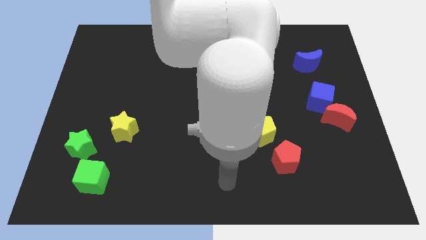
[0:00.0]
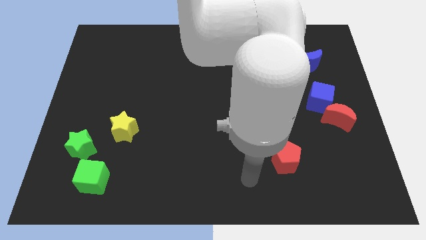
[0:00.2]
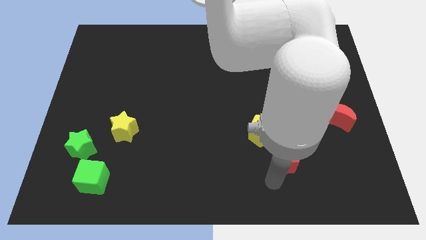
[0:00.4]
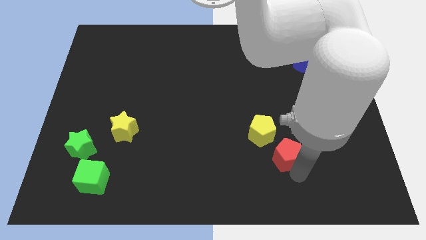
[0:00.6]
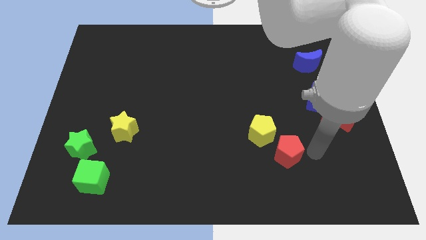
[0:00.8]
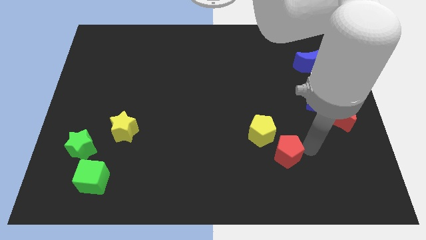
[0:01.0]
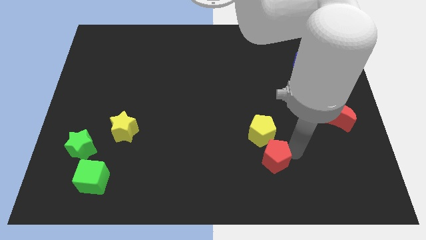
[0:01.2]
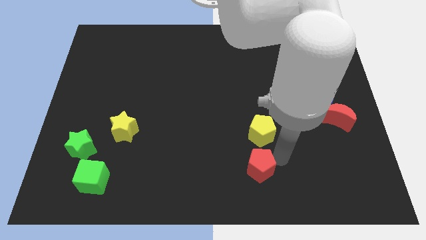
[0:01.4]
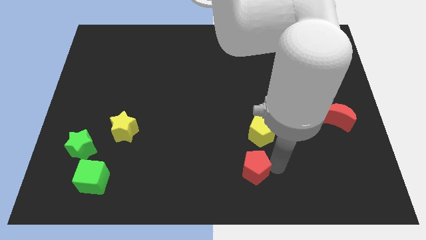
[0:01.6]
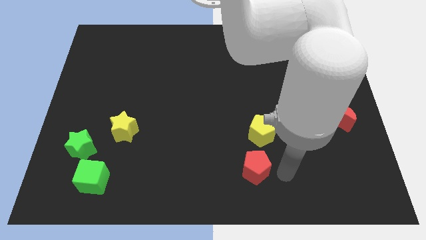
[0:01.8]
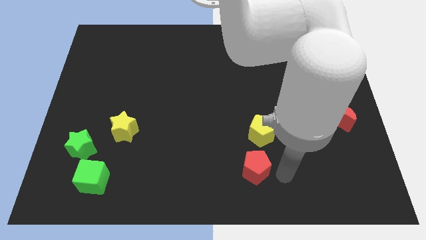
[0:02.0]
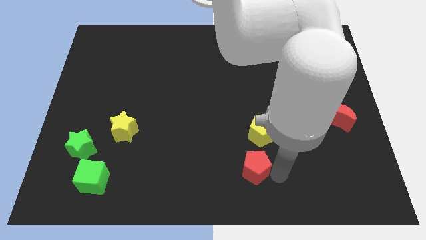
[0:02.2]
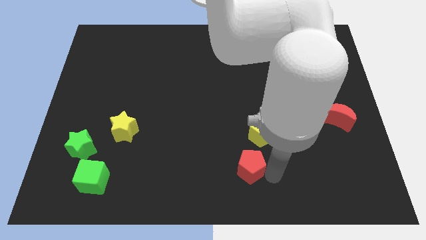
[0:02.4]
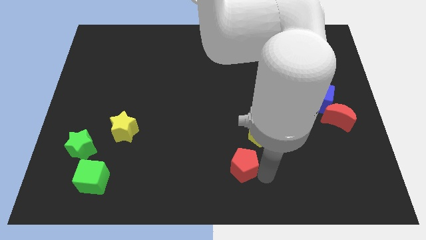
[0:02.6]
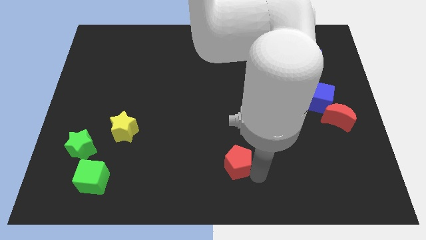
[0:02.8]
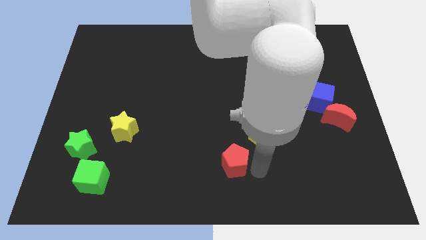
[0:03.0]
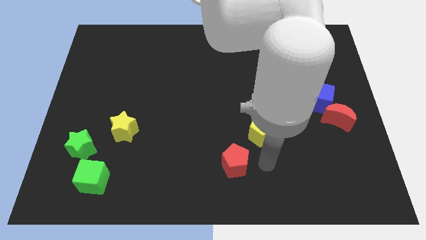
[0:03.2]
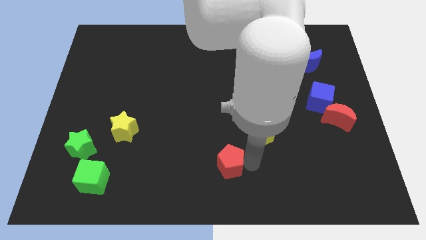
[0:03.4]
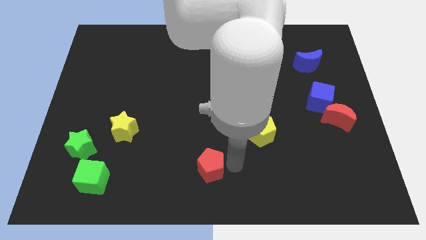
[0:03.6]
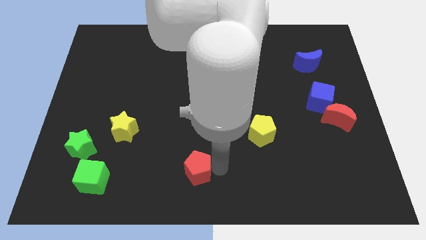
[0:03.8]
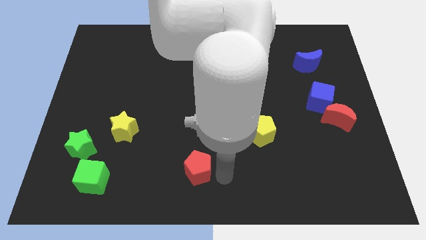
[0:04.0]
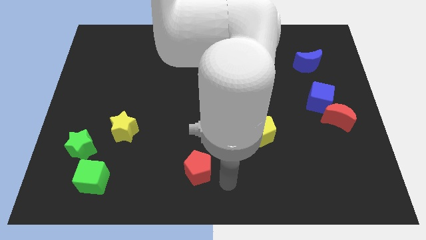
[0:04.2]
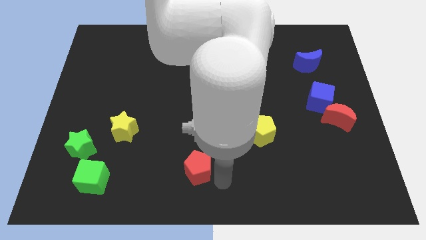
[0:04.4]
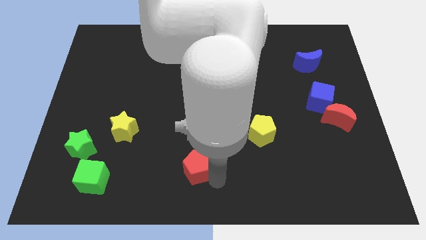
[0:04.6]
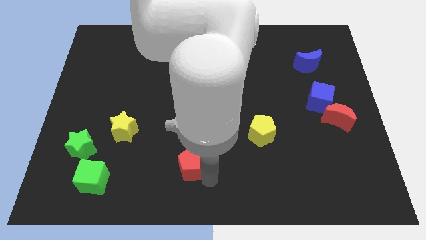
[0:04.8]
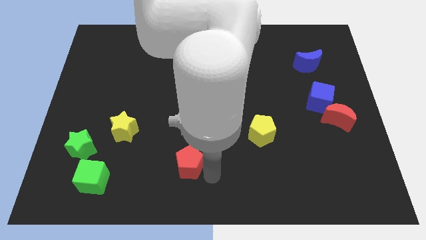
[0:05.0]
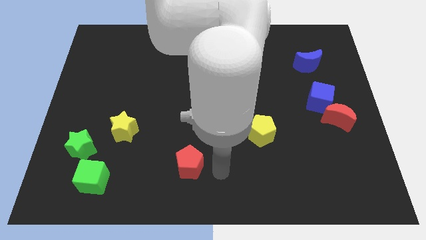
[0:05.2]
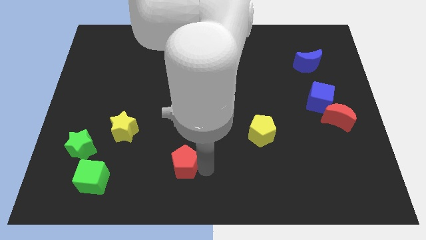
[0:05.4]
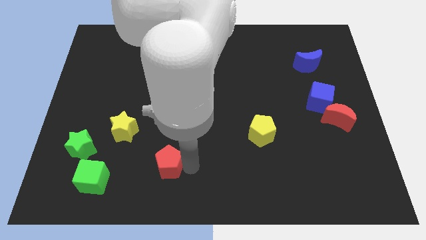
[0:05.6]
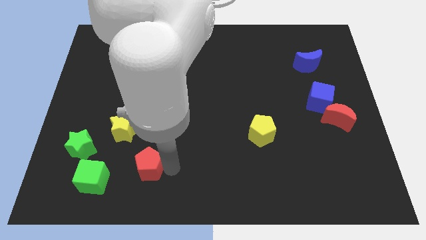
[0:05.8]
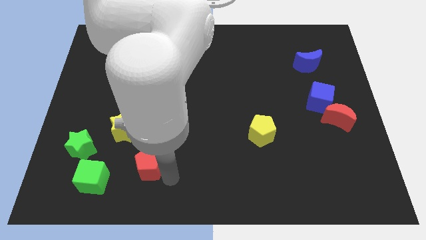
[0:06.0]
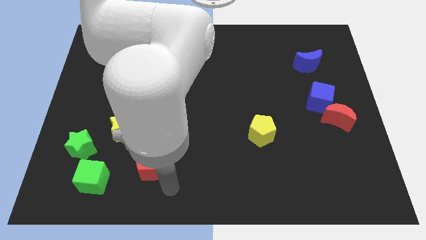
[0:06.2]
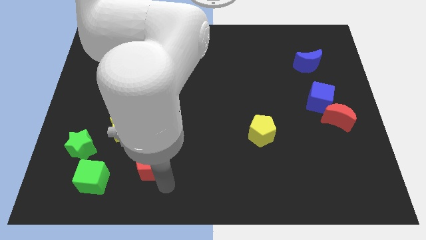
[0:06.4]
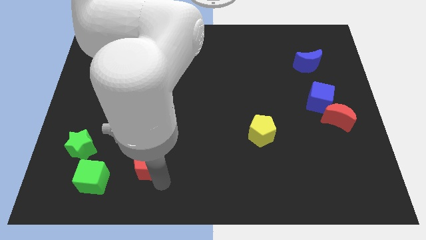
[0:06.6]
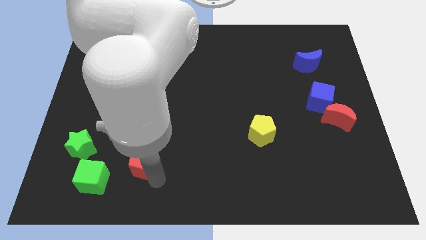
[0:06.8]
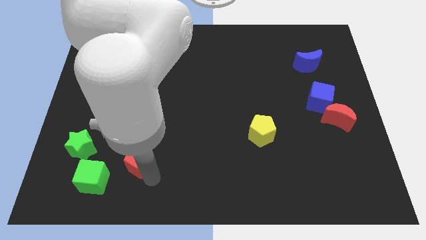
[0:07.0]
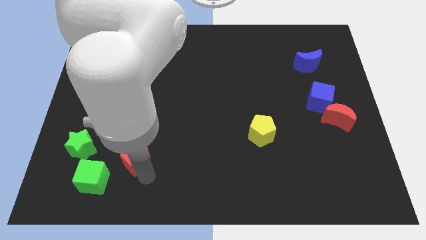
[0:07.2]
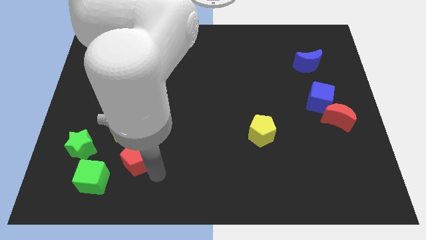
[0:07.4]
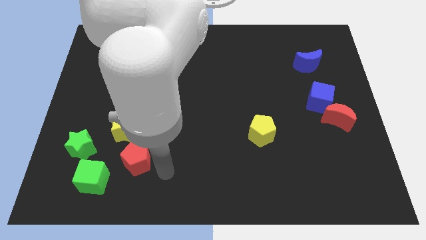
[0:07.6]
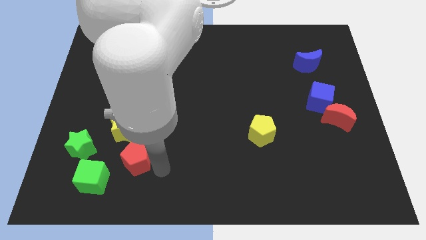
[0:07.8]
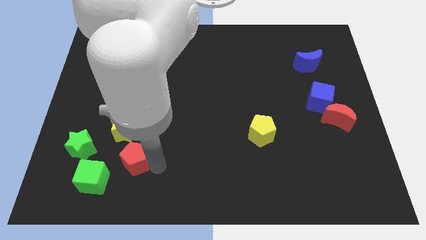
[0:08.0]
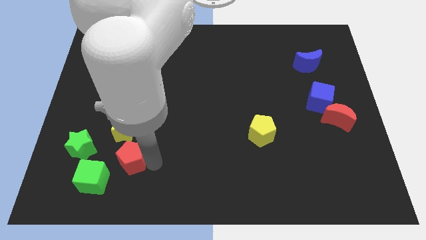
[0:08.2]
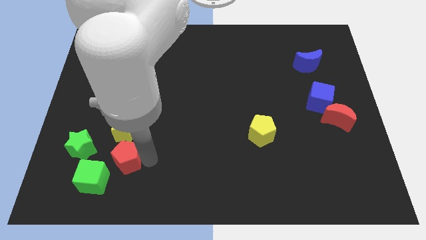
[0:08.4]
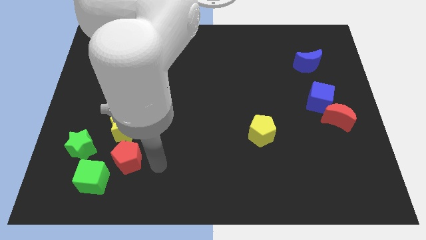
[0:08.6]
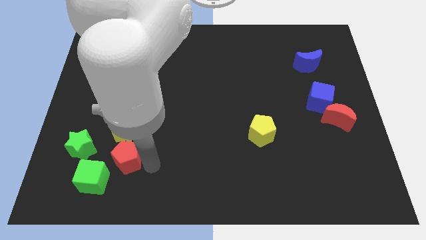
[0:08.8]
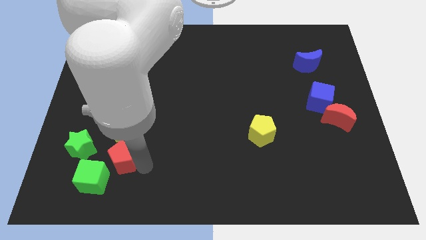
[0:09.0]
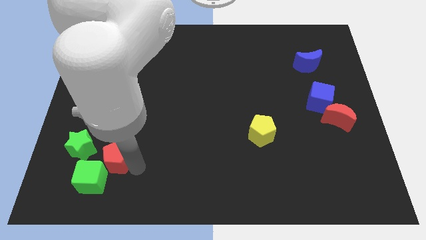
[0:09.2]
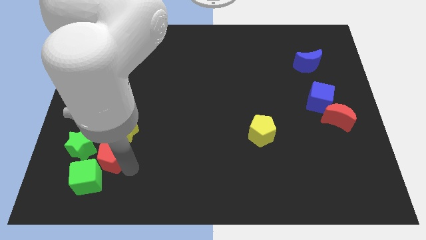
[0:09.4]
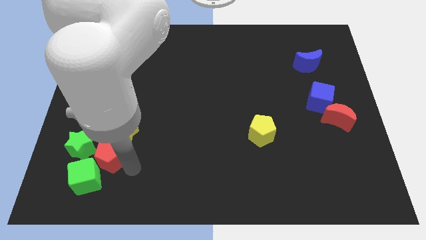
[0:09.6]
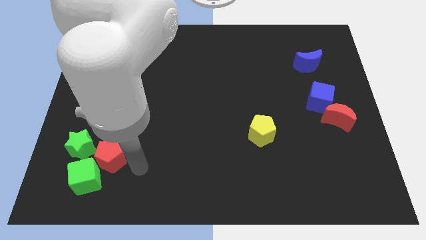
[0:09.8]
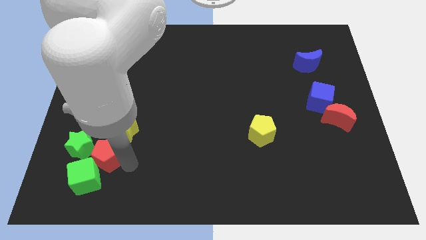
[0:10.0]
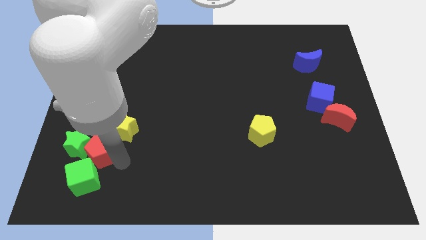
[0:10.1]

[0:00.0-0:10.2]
push the red pentagon next to the green star

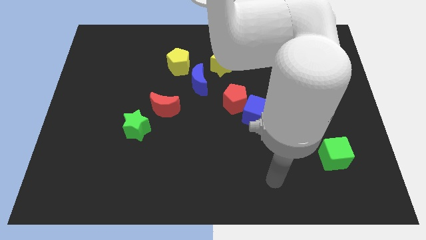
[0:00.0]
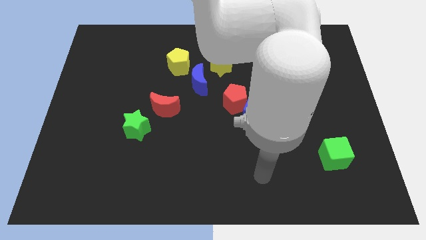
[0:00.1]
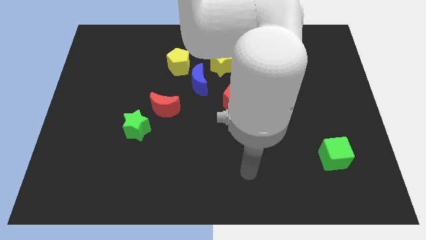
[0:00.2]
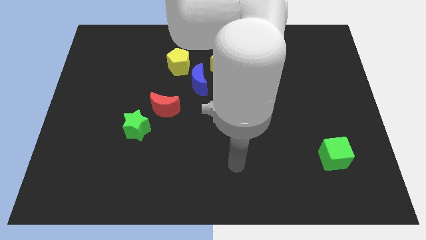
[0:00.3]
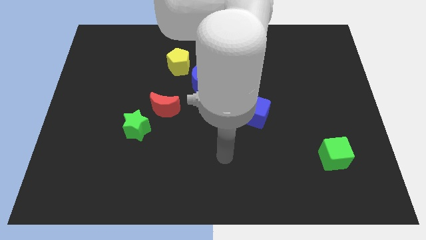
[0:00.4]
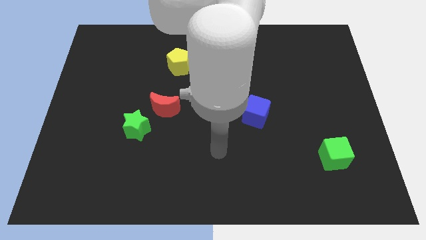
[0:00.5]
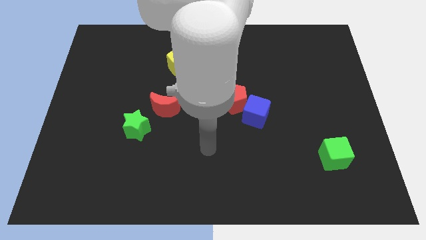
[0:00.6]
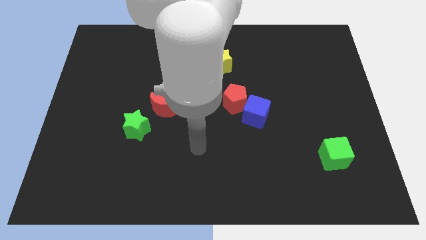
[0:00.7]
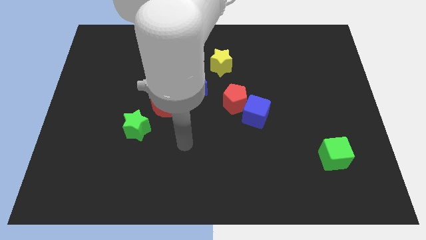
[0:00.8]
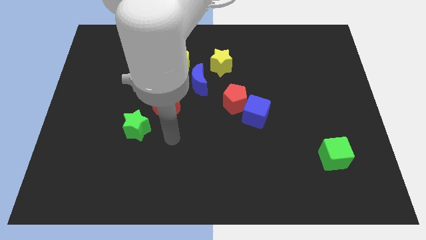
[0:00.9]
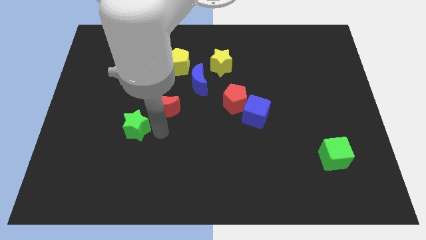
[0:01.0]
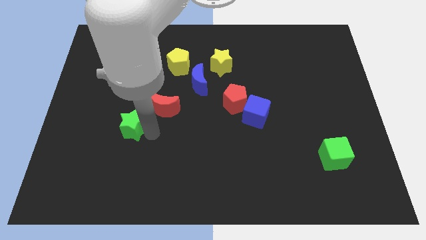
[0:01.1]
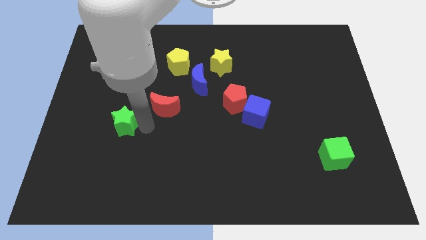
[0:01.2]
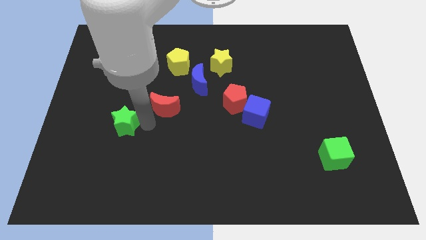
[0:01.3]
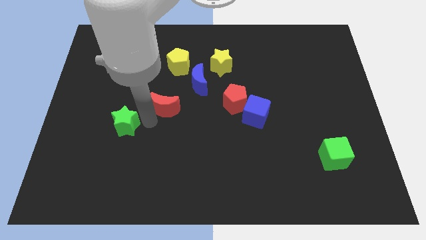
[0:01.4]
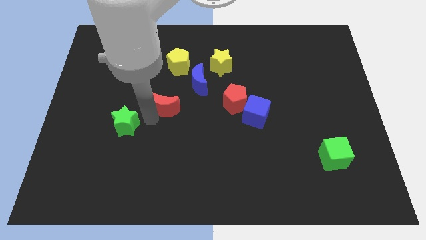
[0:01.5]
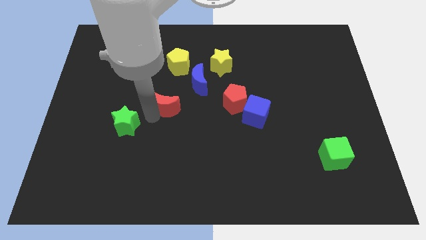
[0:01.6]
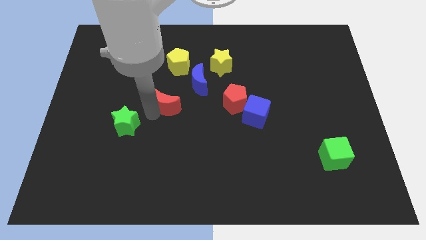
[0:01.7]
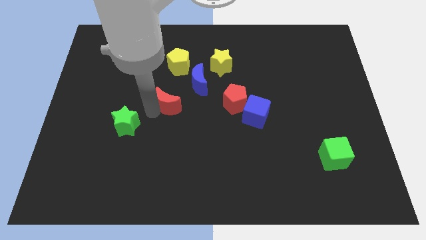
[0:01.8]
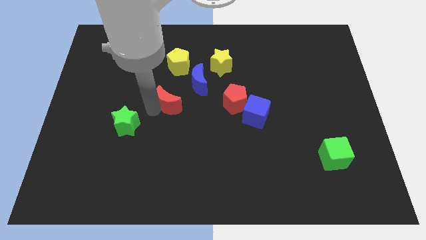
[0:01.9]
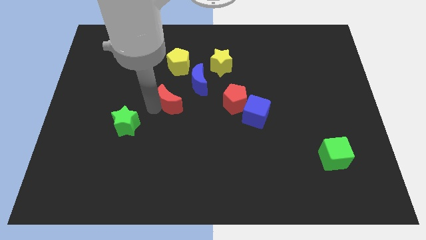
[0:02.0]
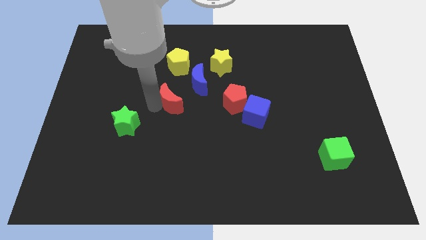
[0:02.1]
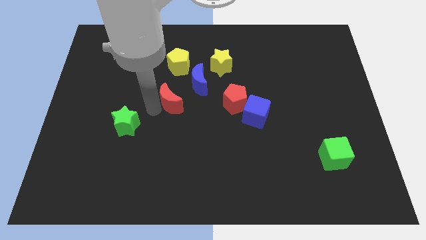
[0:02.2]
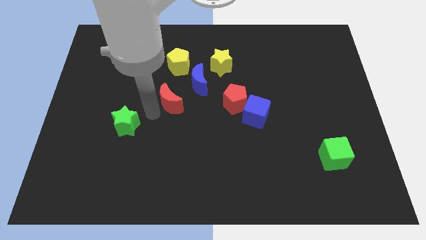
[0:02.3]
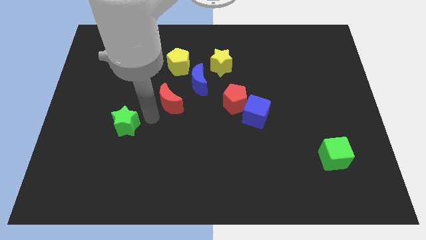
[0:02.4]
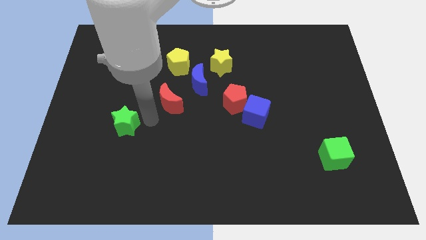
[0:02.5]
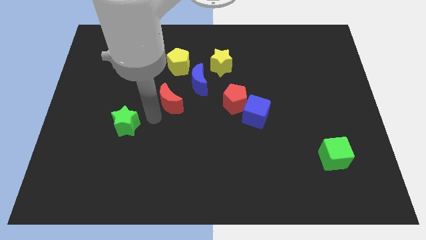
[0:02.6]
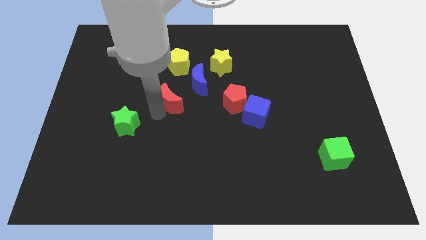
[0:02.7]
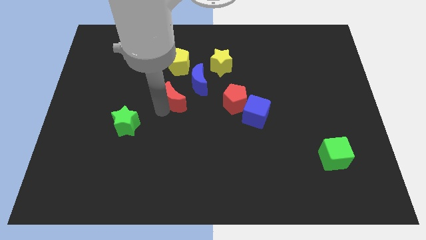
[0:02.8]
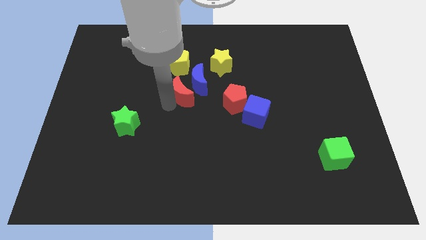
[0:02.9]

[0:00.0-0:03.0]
move the red moon towards the blue moon
